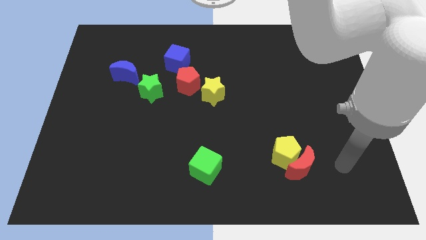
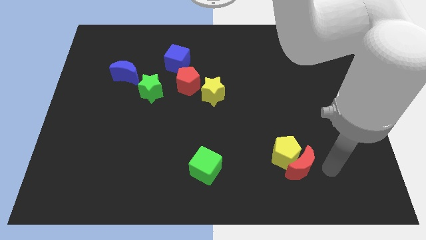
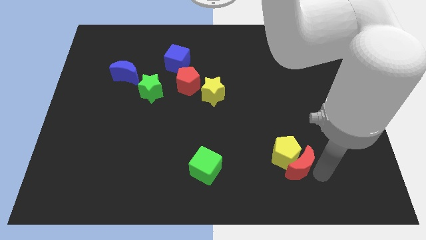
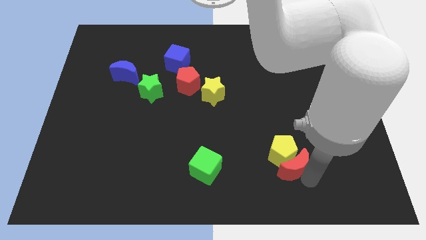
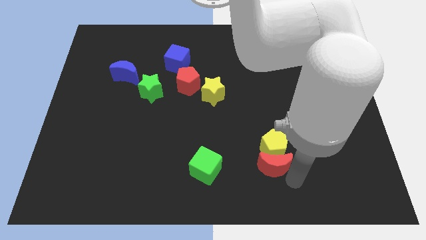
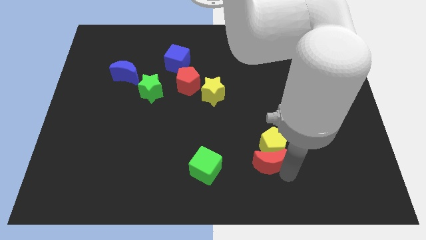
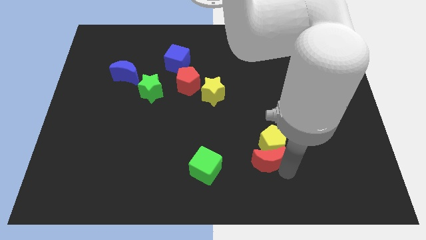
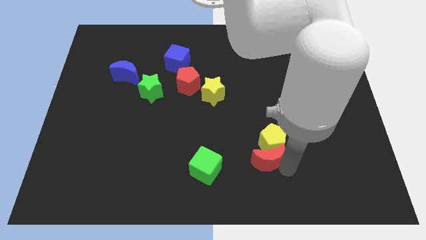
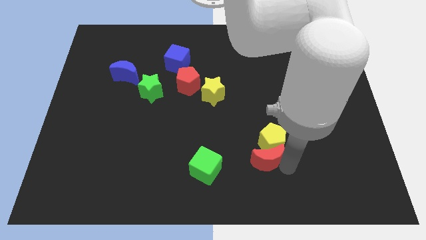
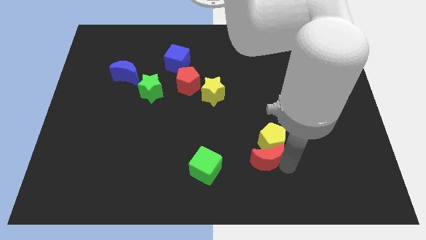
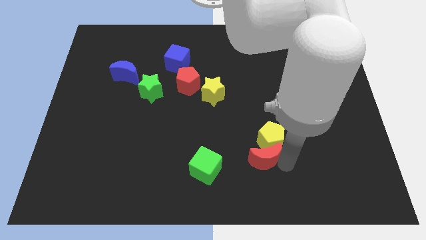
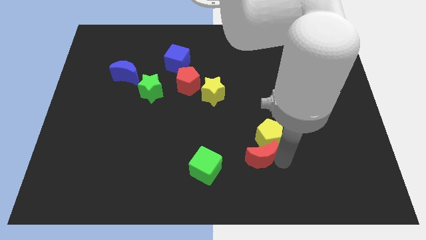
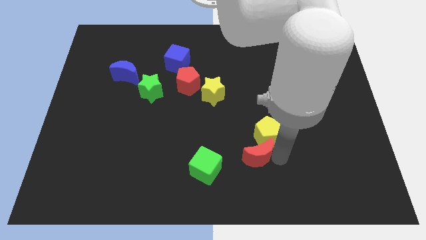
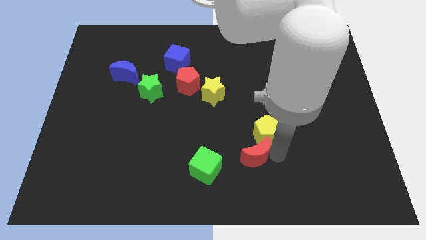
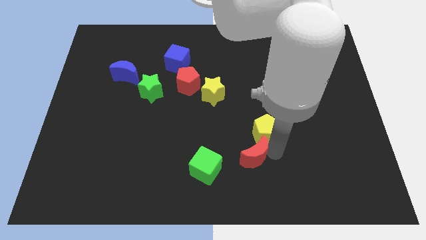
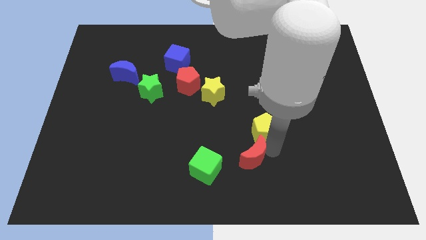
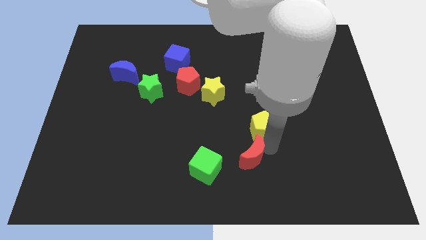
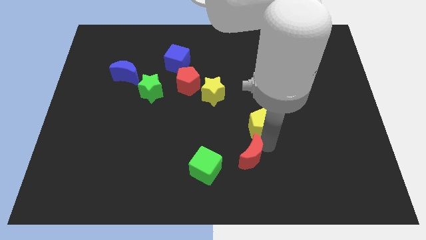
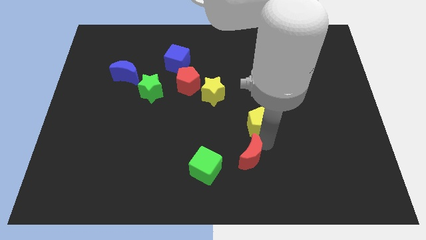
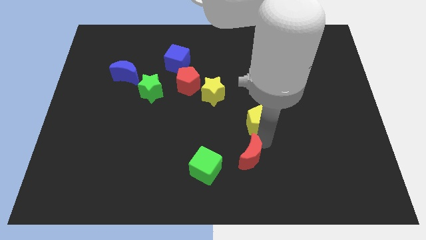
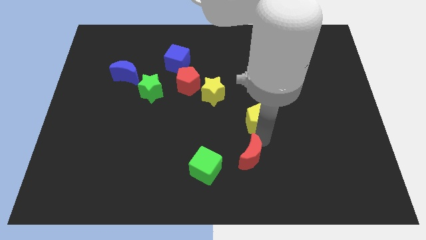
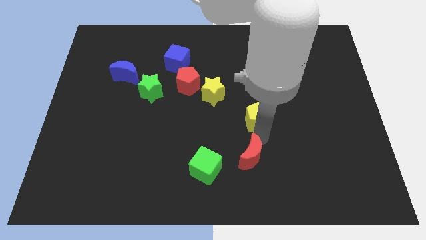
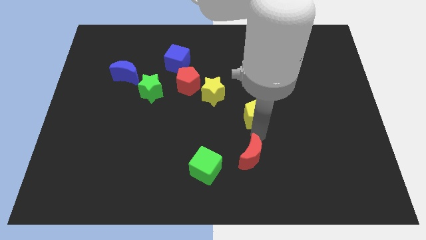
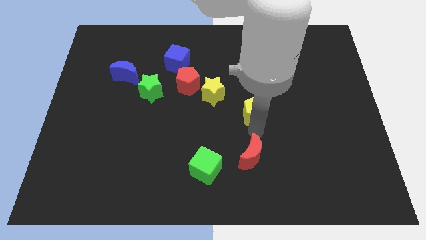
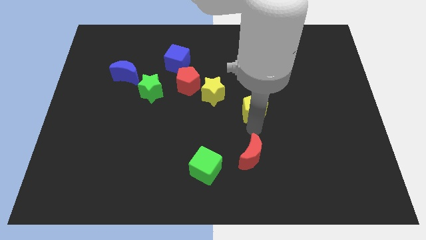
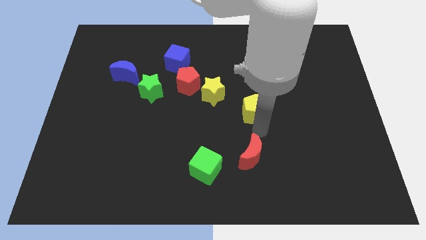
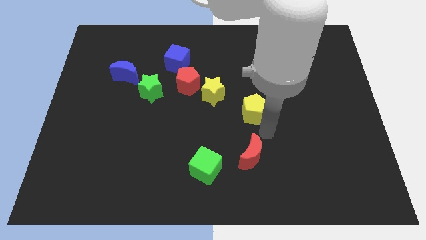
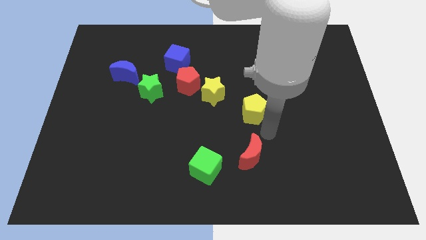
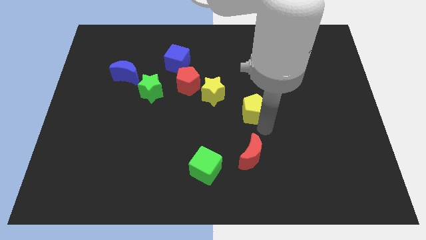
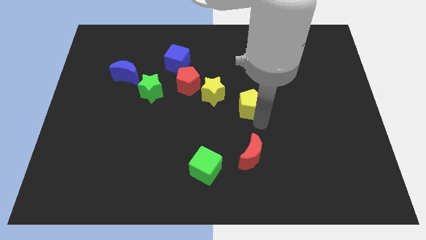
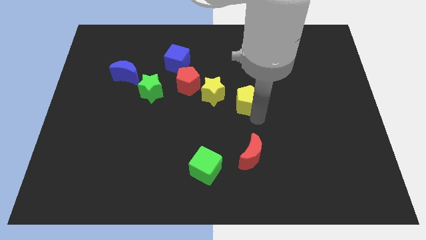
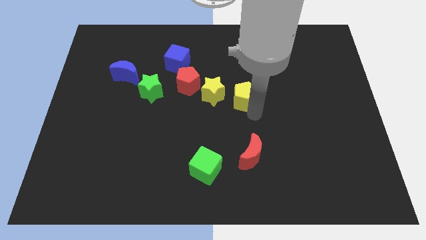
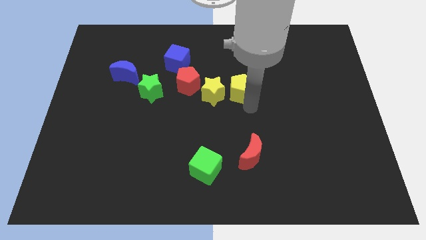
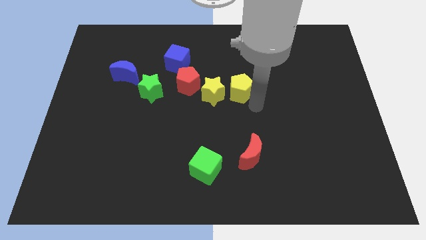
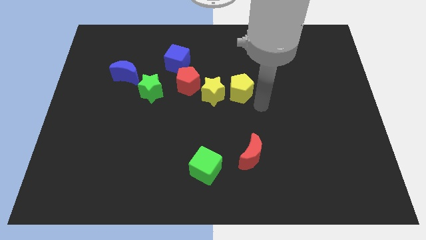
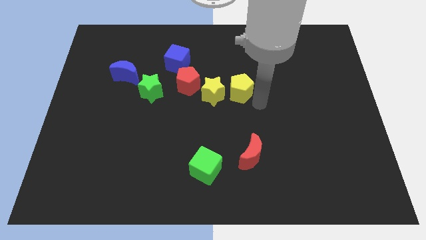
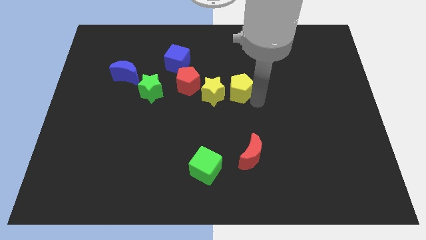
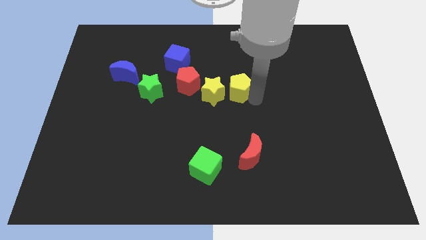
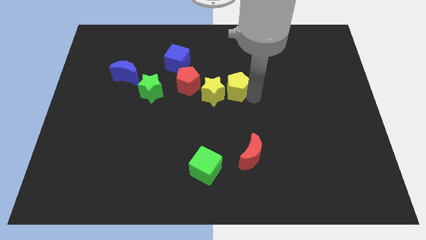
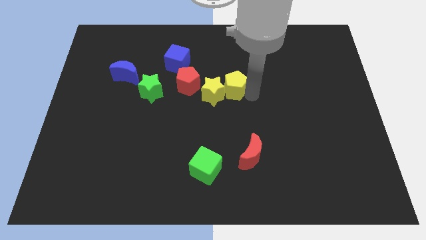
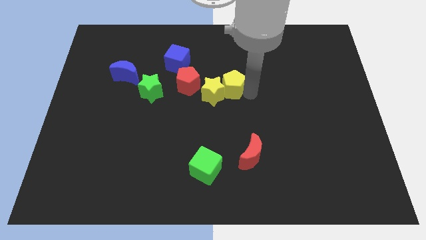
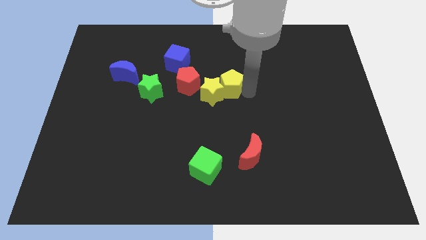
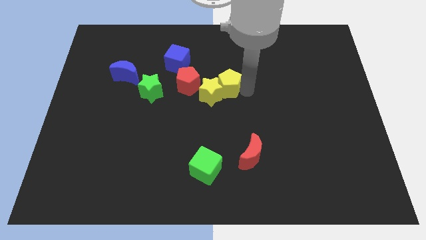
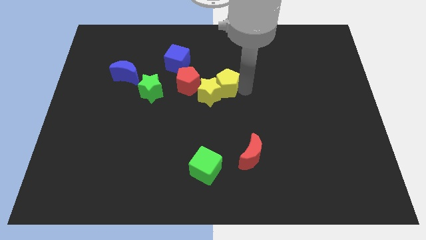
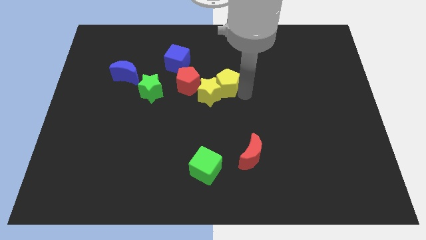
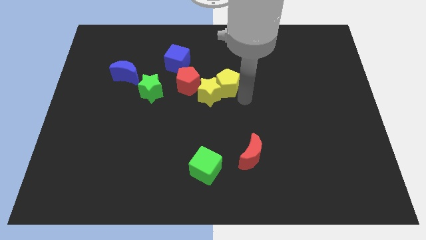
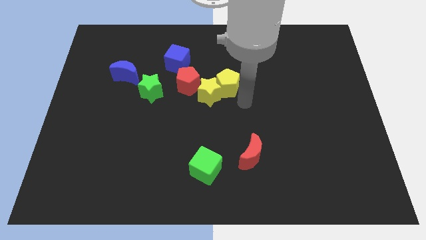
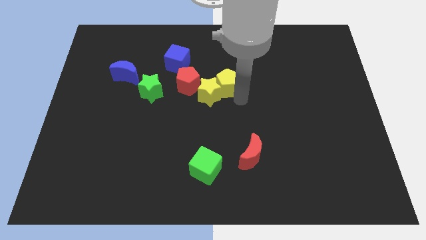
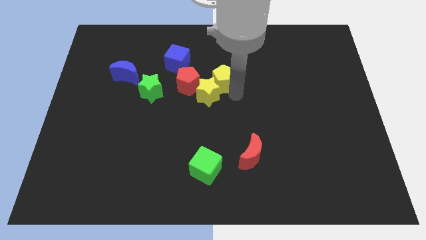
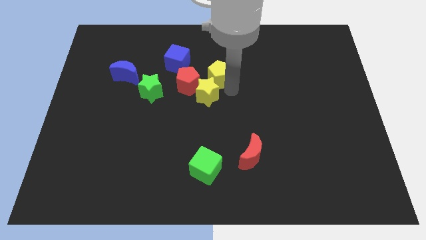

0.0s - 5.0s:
move the yellow pentagon to the top right of the red pentagon

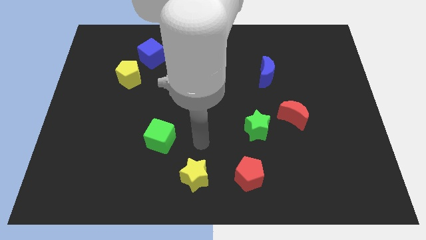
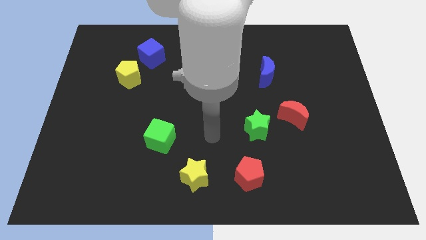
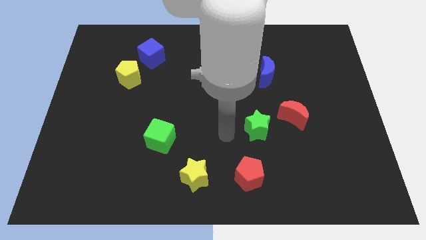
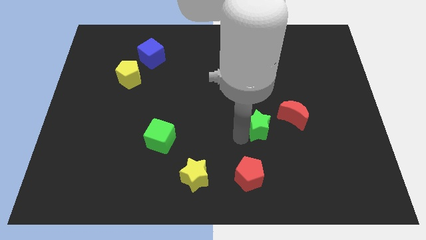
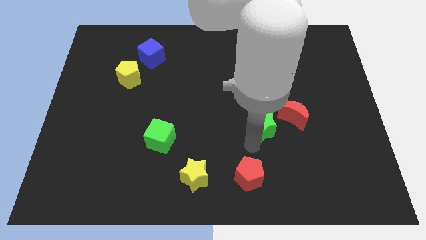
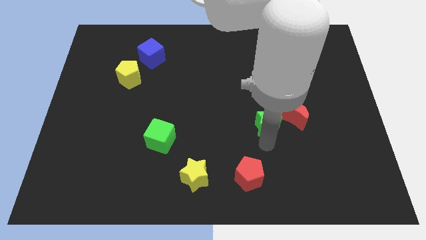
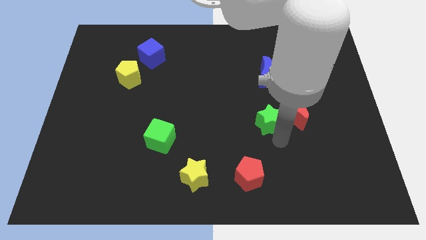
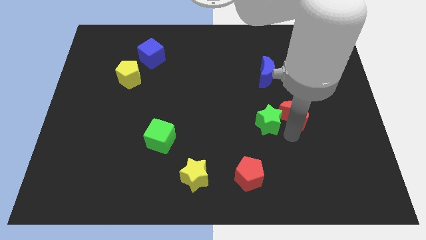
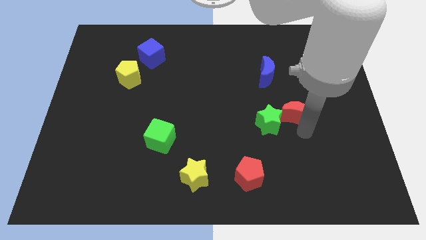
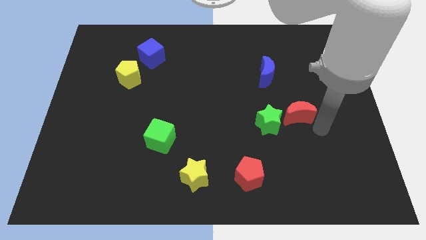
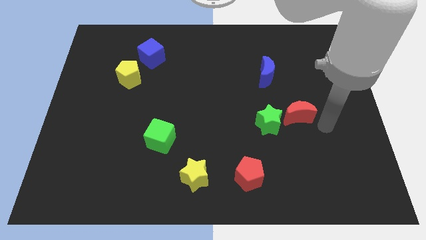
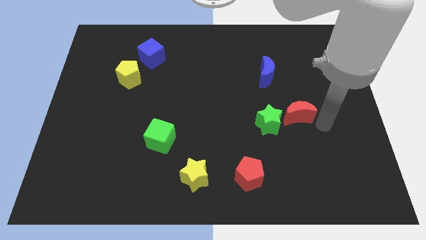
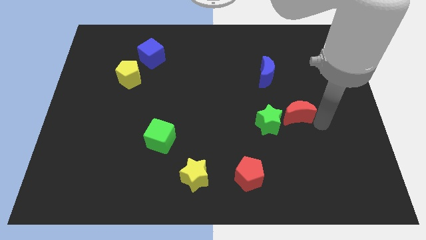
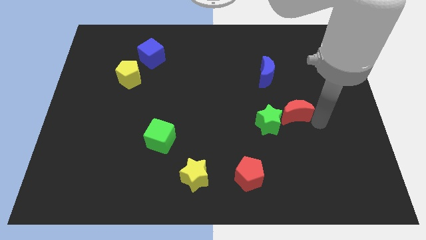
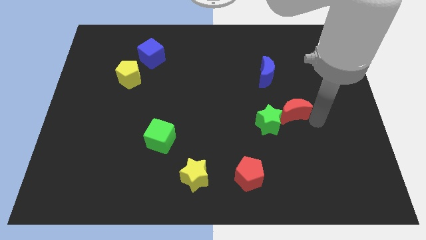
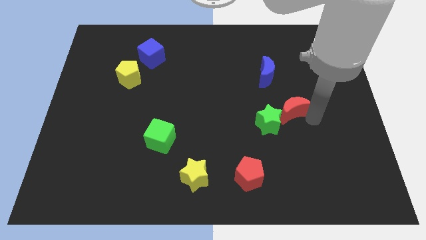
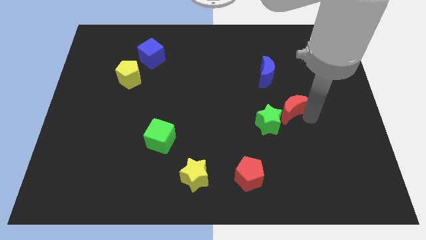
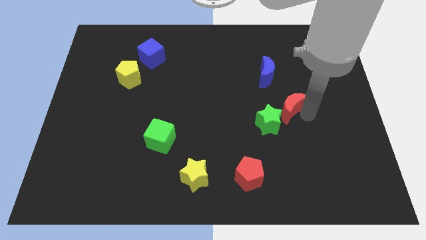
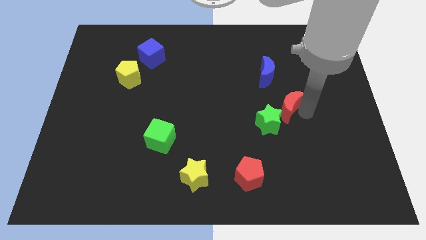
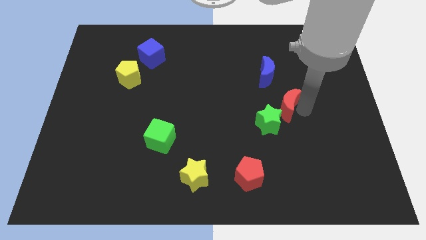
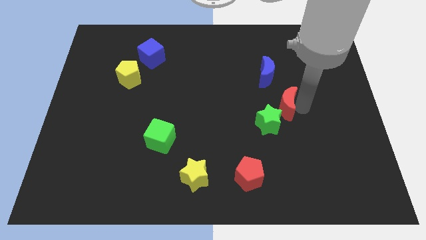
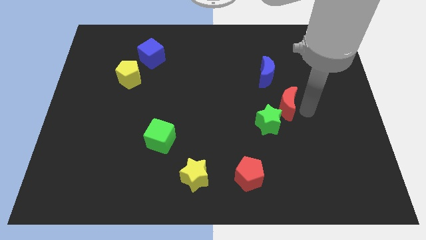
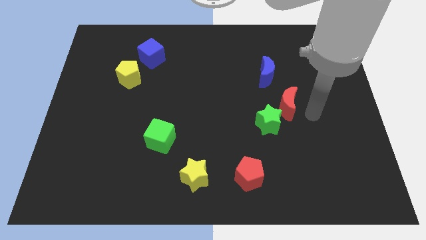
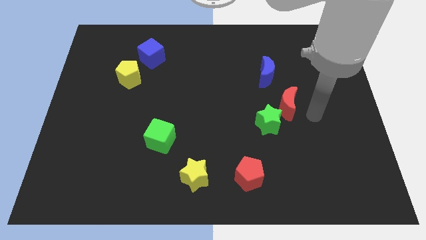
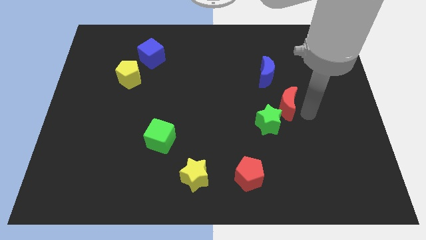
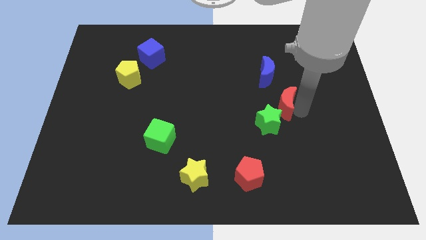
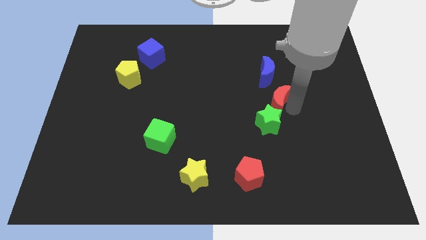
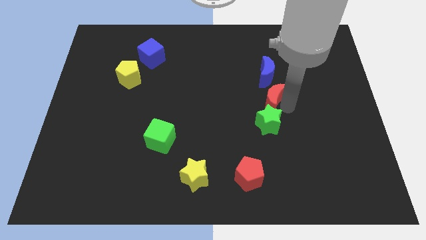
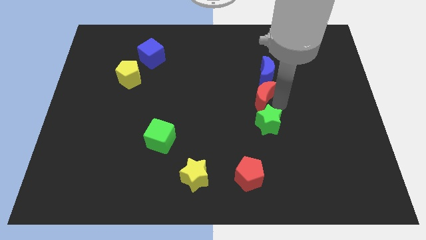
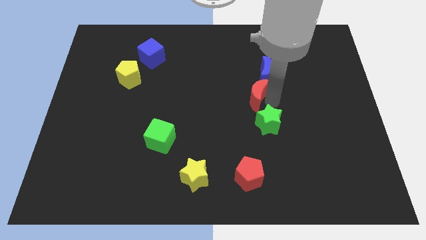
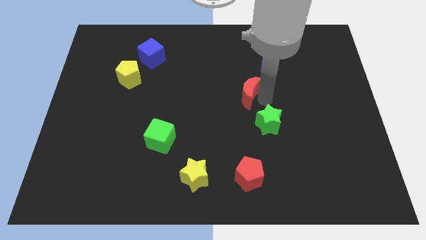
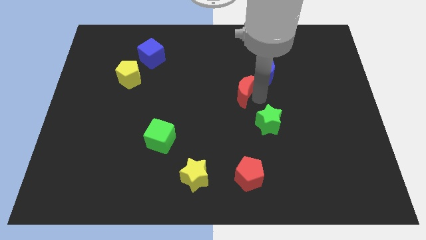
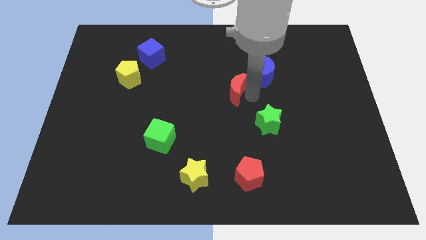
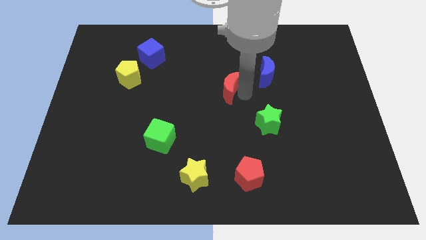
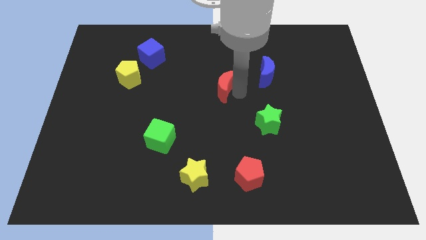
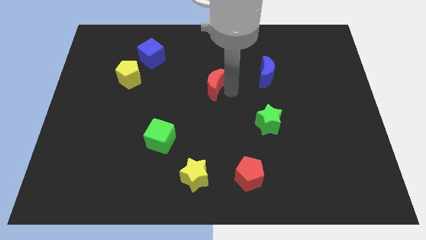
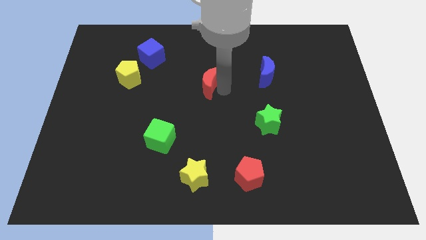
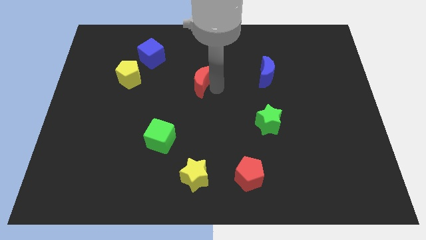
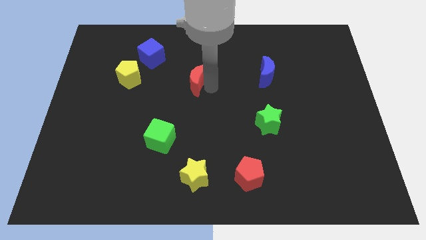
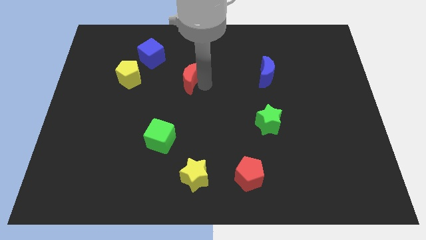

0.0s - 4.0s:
move the red moon right of the yellow pentagon
